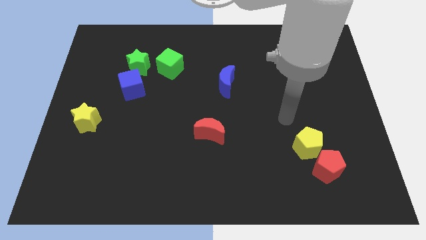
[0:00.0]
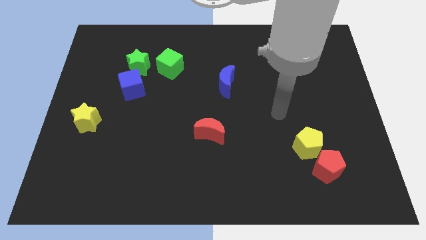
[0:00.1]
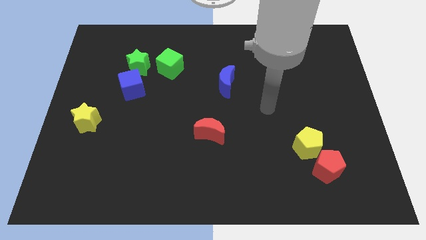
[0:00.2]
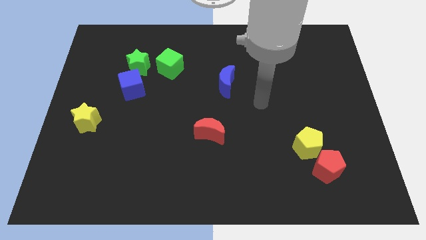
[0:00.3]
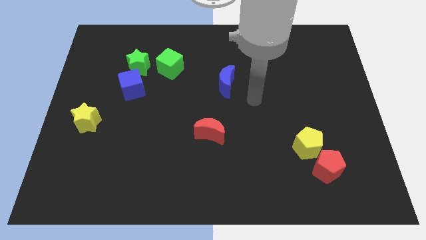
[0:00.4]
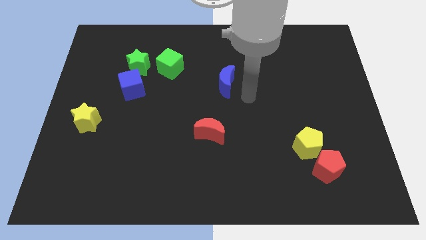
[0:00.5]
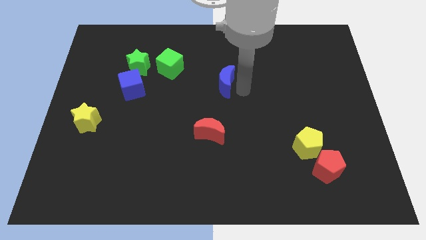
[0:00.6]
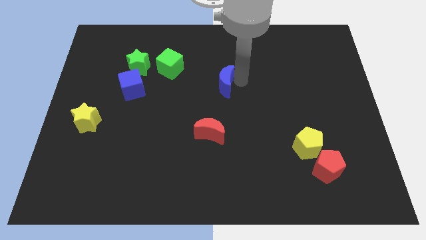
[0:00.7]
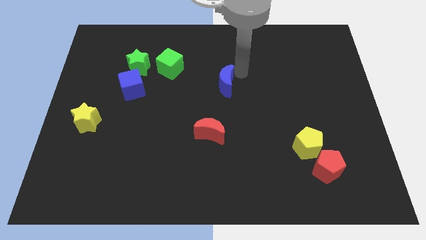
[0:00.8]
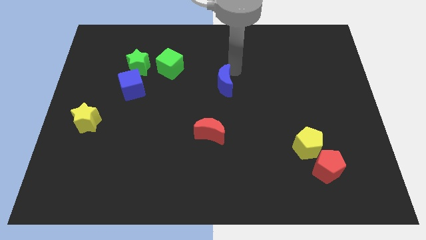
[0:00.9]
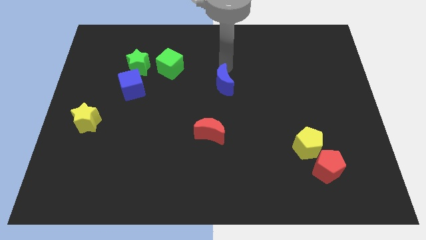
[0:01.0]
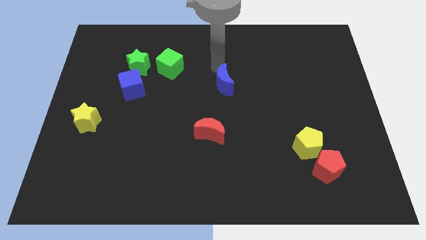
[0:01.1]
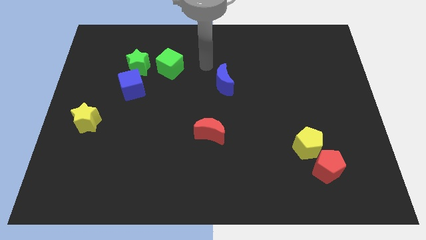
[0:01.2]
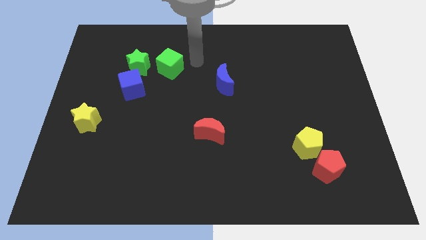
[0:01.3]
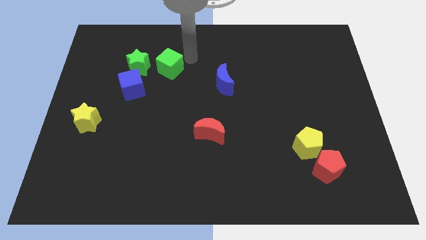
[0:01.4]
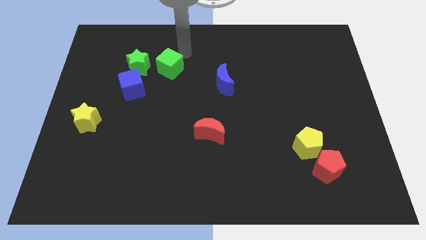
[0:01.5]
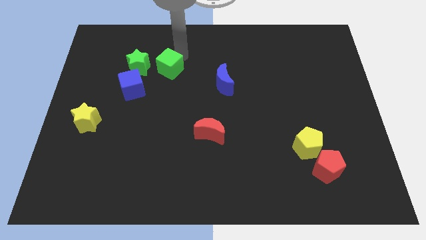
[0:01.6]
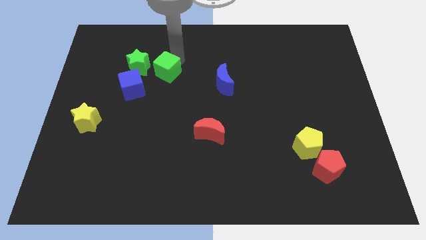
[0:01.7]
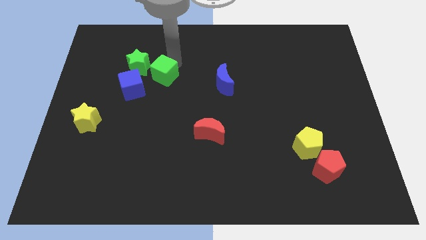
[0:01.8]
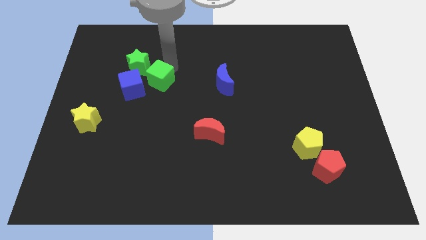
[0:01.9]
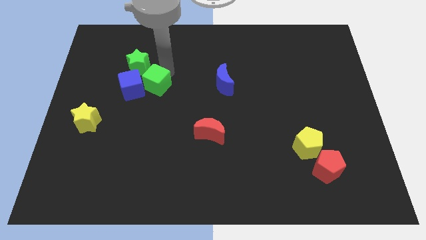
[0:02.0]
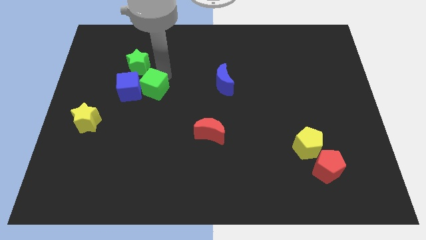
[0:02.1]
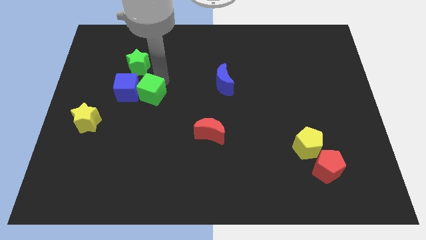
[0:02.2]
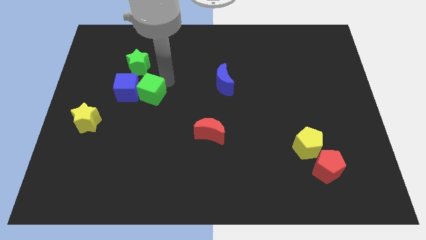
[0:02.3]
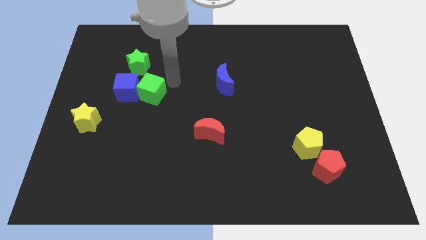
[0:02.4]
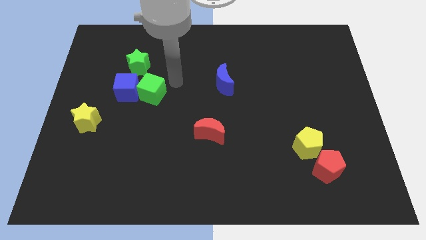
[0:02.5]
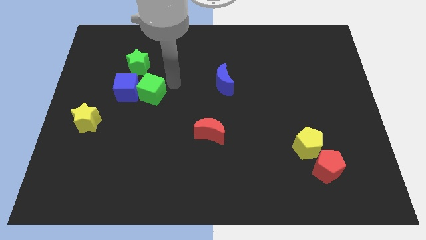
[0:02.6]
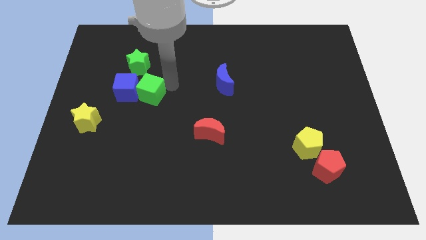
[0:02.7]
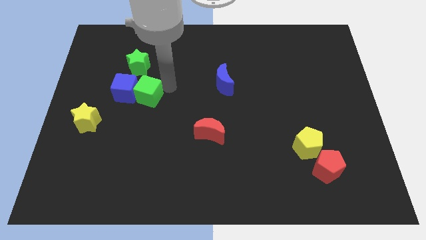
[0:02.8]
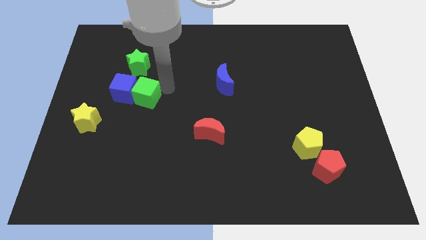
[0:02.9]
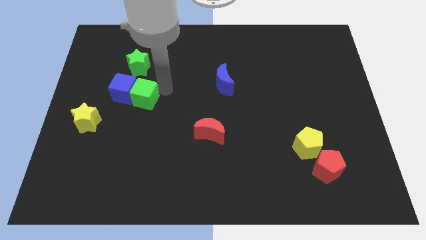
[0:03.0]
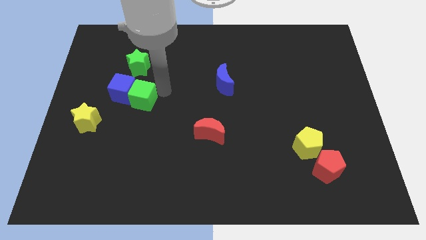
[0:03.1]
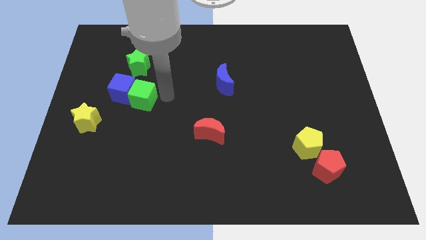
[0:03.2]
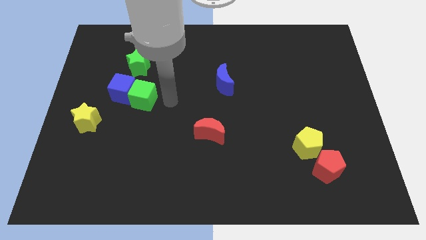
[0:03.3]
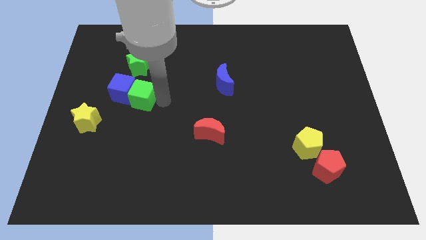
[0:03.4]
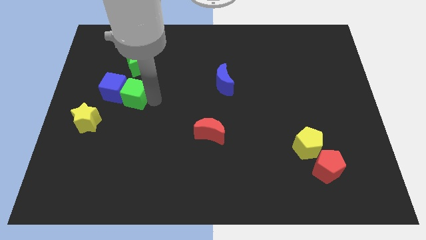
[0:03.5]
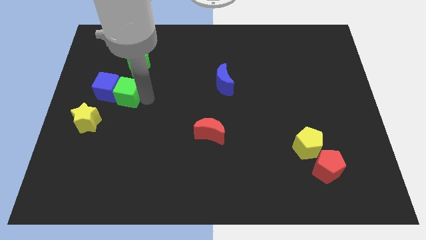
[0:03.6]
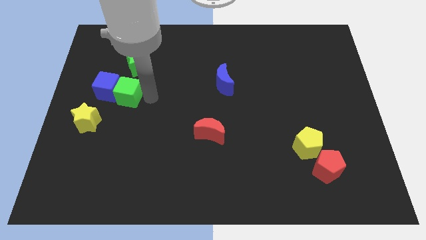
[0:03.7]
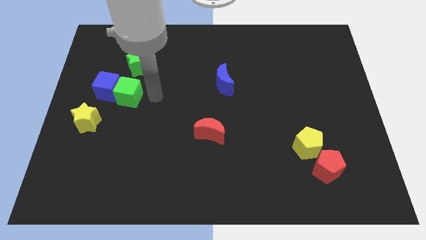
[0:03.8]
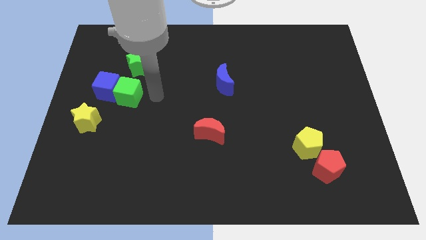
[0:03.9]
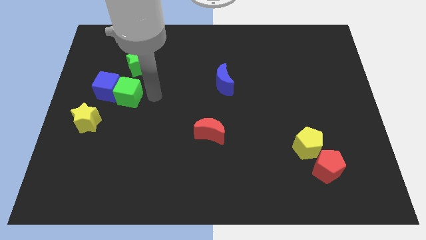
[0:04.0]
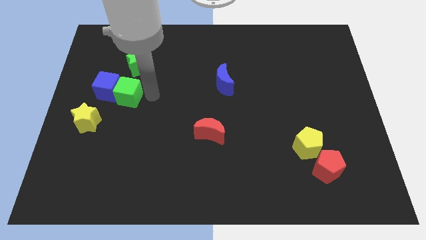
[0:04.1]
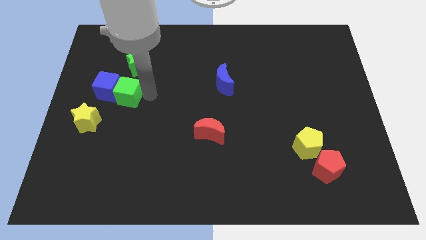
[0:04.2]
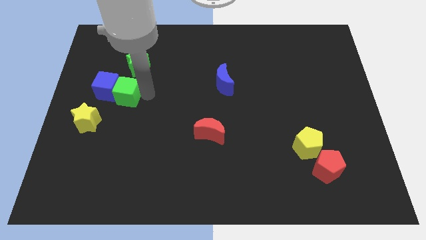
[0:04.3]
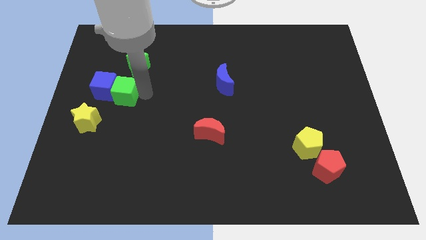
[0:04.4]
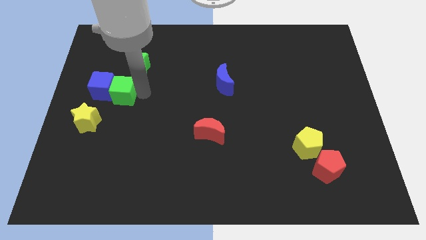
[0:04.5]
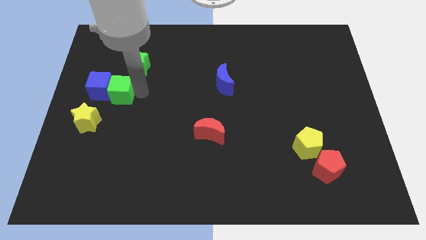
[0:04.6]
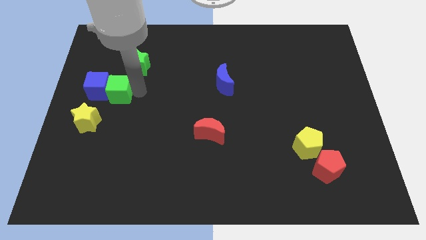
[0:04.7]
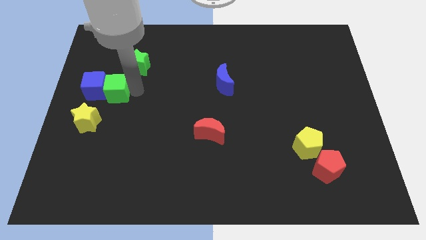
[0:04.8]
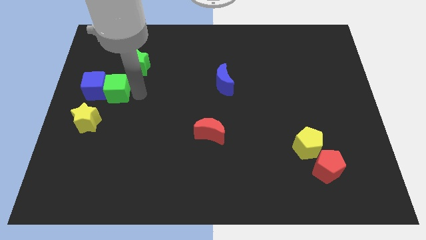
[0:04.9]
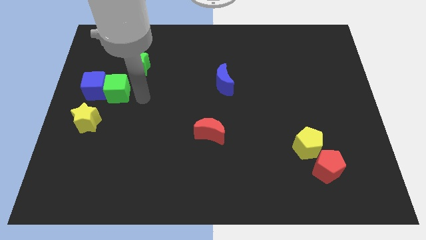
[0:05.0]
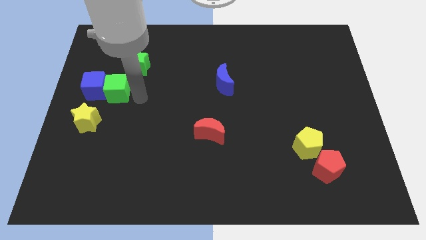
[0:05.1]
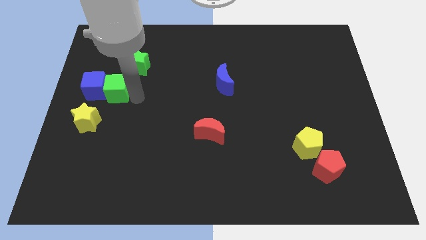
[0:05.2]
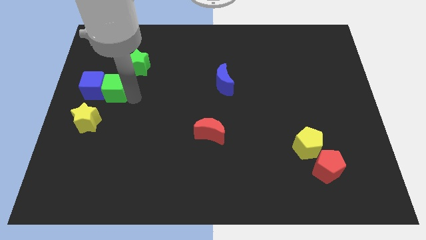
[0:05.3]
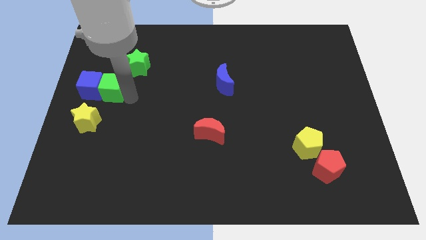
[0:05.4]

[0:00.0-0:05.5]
push the green cube to the top side of the yellow star

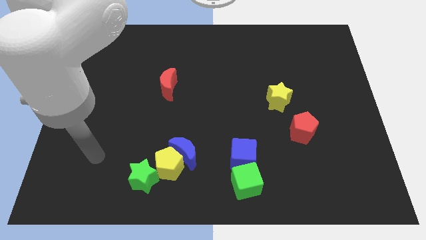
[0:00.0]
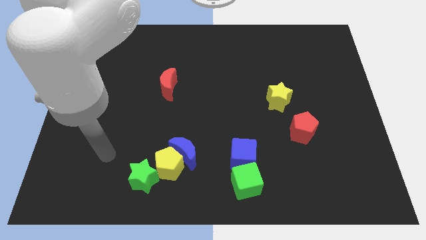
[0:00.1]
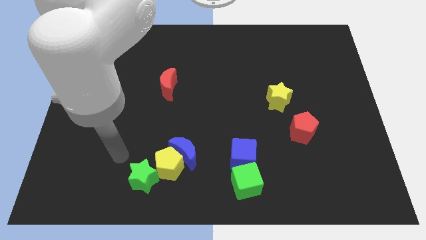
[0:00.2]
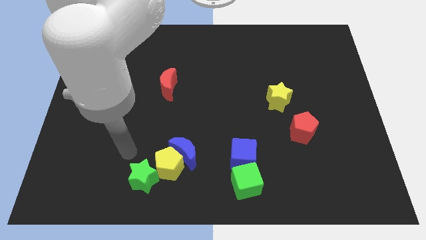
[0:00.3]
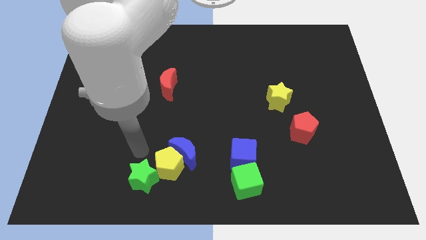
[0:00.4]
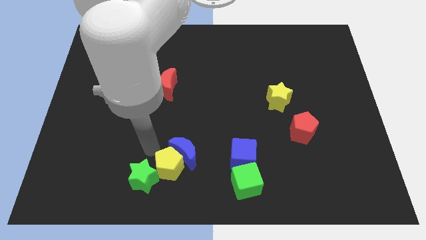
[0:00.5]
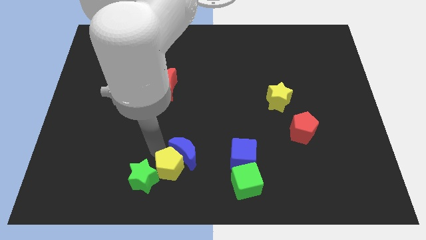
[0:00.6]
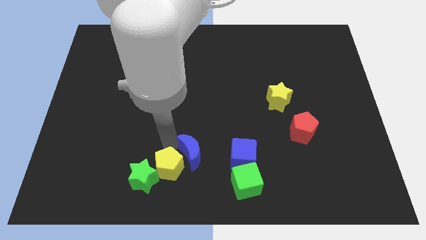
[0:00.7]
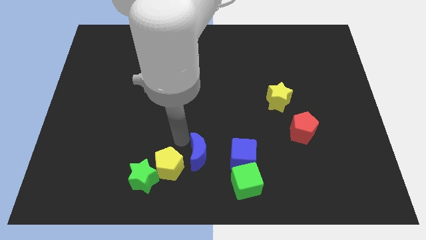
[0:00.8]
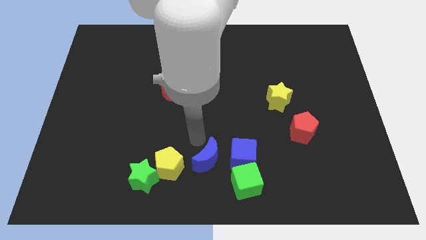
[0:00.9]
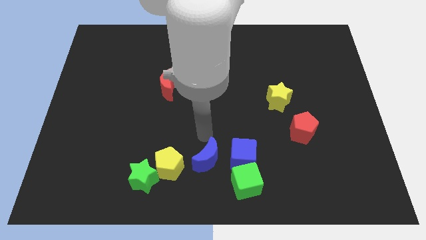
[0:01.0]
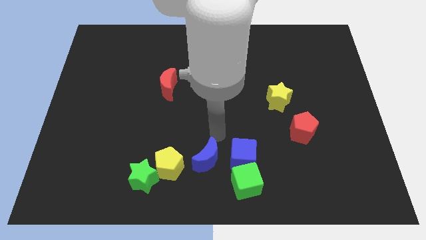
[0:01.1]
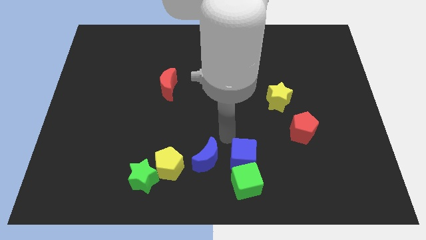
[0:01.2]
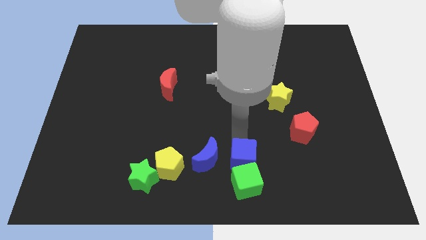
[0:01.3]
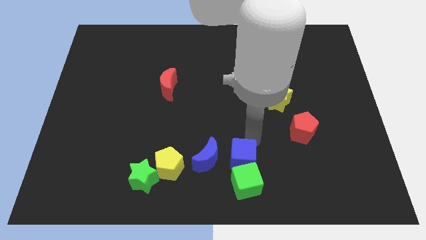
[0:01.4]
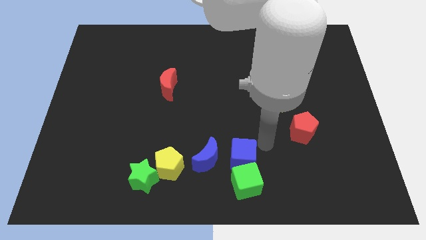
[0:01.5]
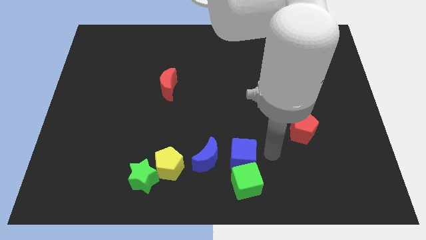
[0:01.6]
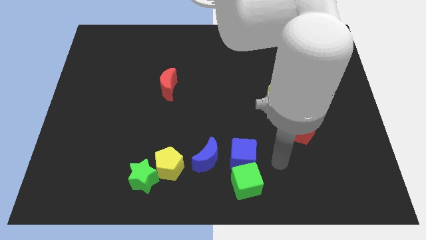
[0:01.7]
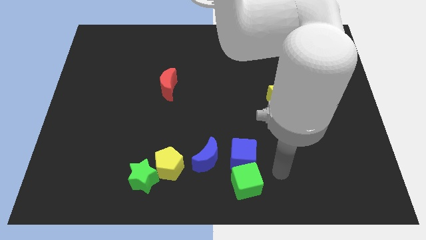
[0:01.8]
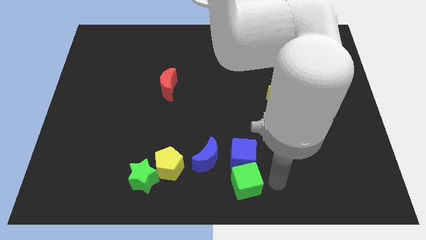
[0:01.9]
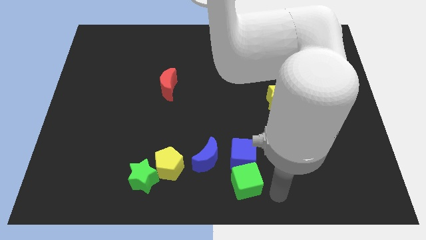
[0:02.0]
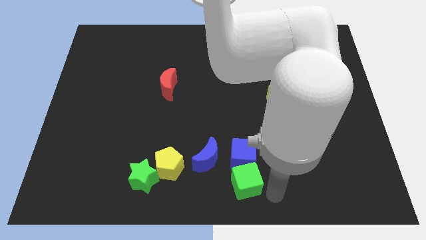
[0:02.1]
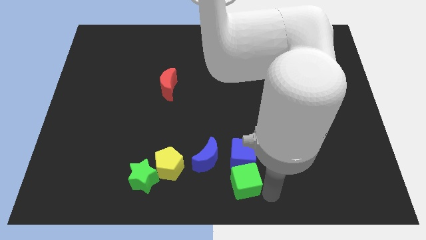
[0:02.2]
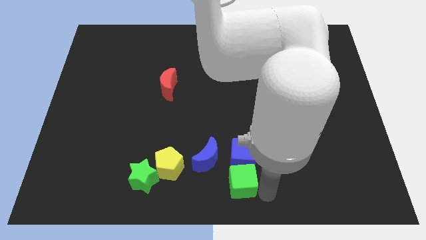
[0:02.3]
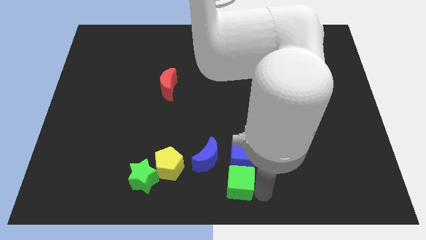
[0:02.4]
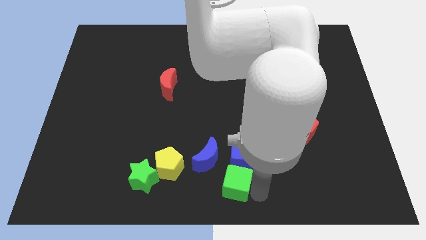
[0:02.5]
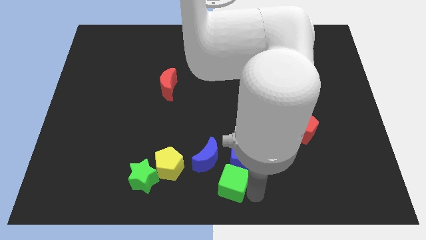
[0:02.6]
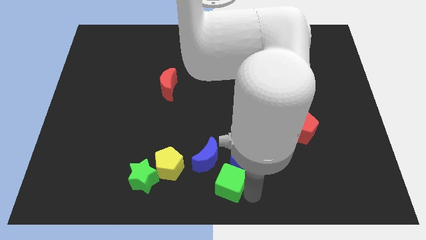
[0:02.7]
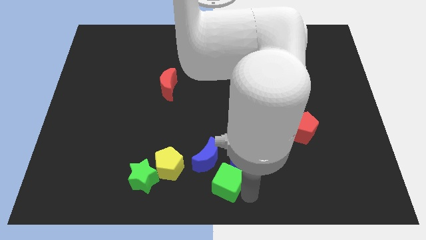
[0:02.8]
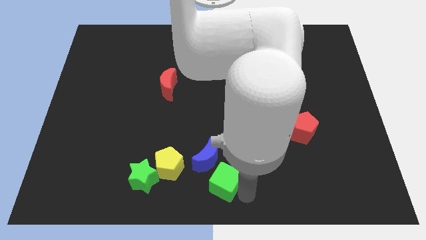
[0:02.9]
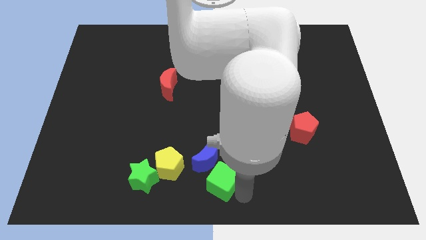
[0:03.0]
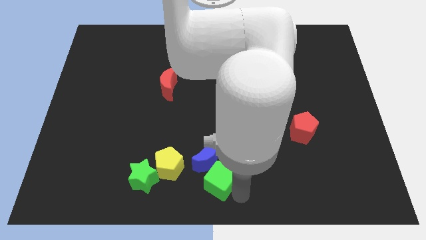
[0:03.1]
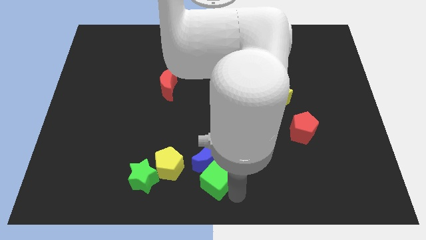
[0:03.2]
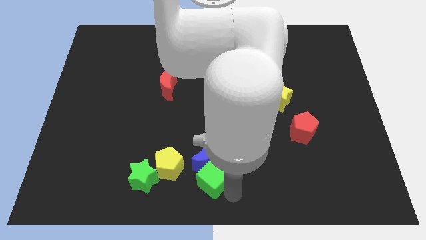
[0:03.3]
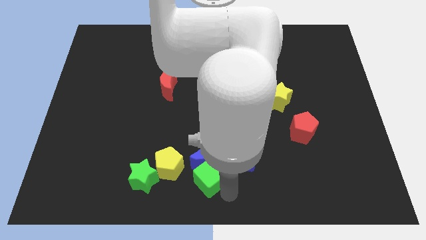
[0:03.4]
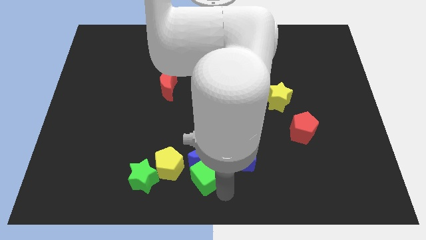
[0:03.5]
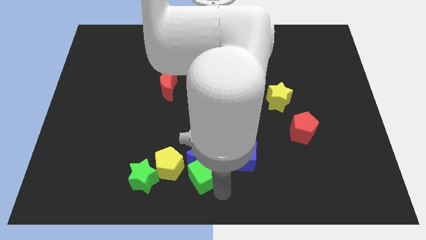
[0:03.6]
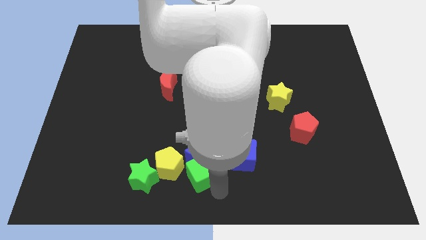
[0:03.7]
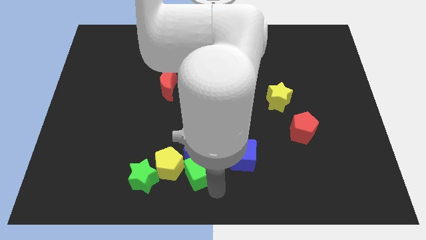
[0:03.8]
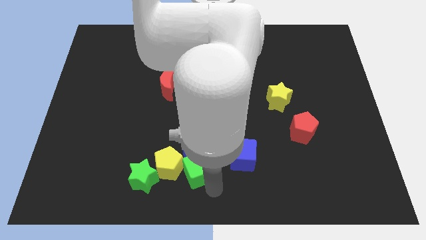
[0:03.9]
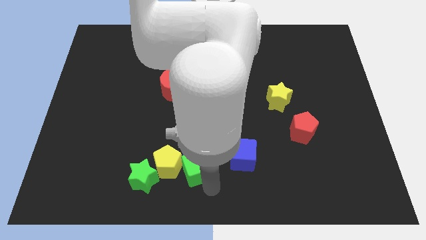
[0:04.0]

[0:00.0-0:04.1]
slide the green cube to the top right side of the yellow pentagon
